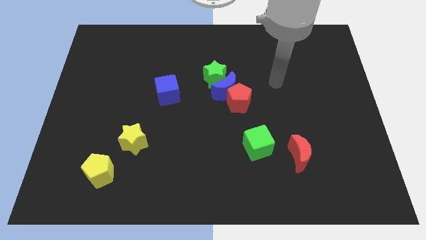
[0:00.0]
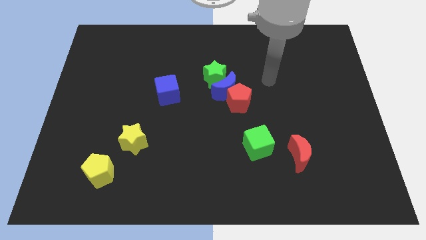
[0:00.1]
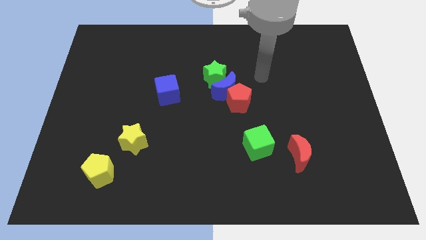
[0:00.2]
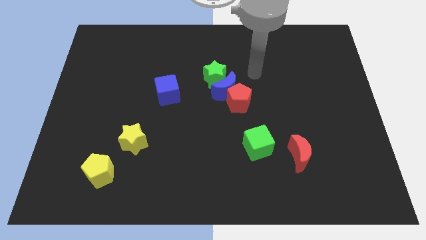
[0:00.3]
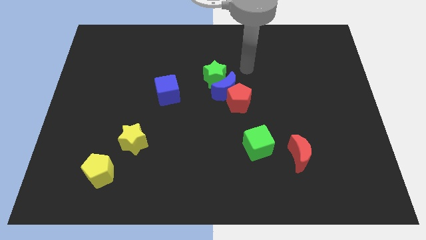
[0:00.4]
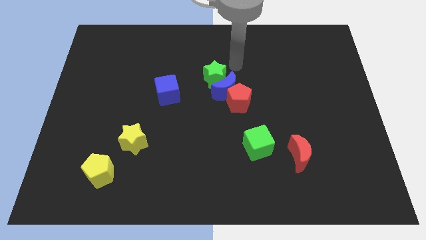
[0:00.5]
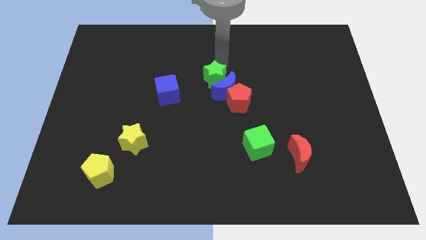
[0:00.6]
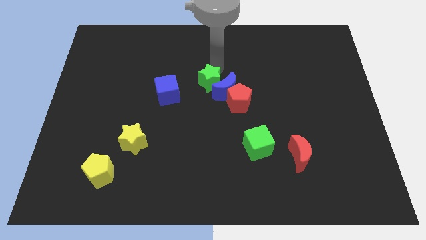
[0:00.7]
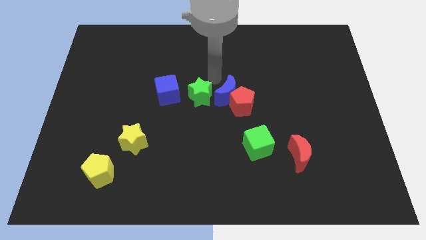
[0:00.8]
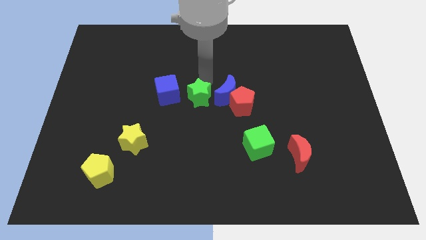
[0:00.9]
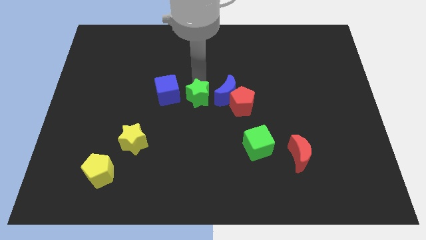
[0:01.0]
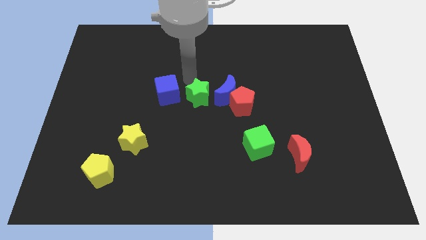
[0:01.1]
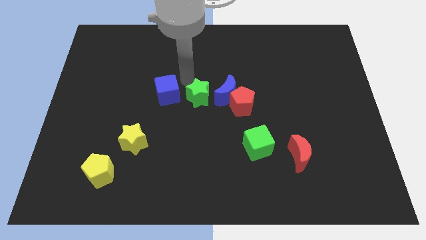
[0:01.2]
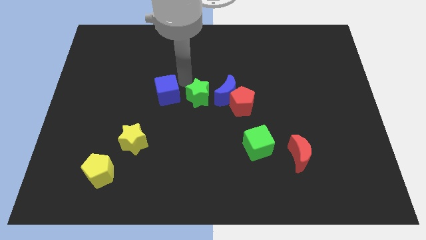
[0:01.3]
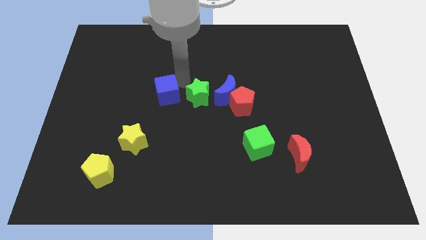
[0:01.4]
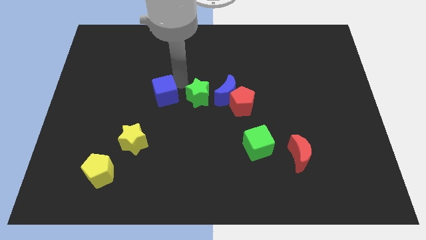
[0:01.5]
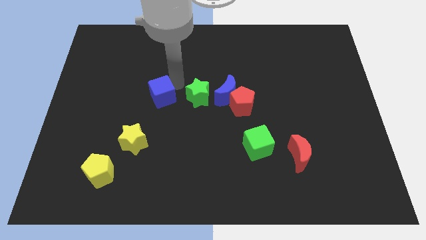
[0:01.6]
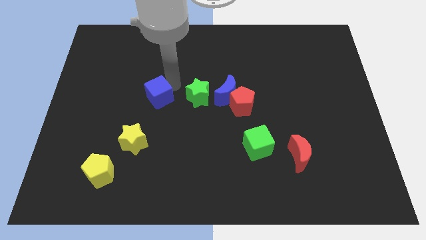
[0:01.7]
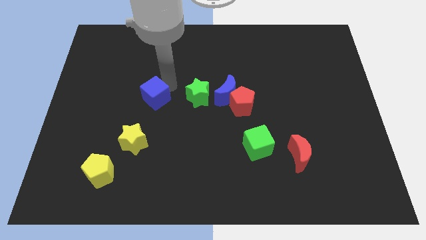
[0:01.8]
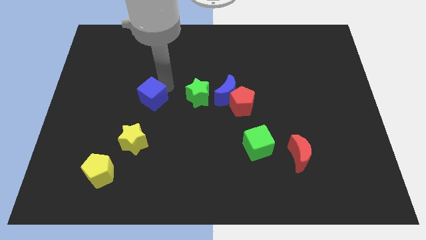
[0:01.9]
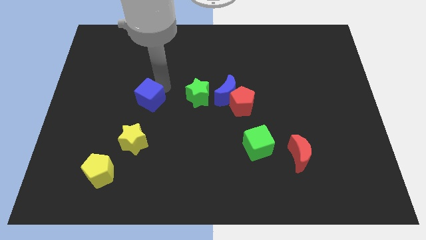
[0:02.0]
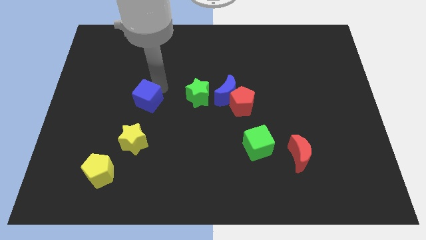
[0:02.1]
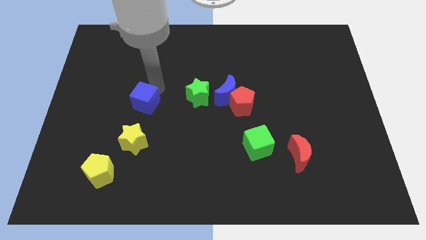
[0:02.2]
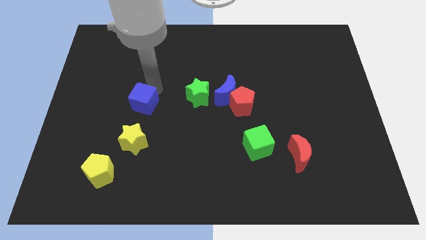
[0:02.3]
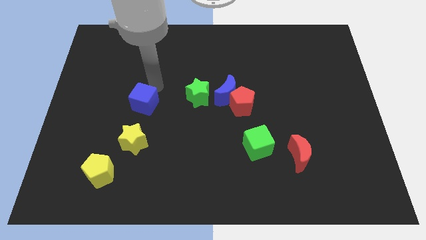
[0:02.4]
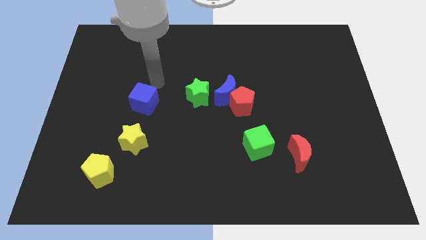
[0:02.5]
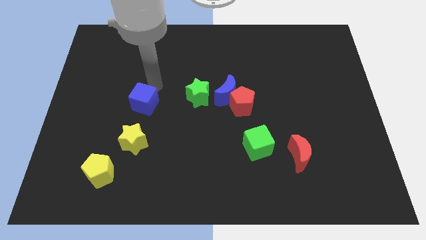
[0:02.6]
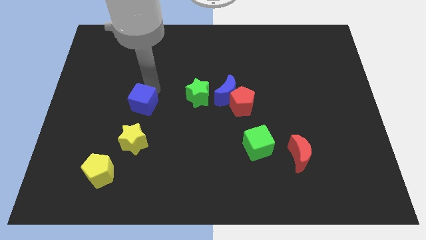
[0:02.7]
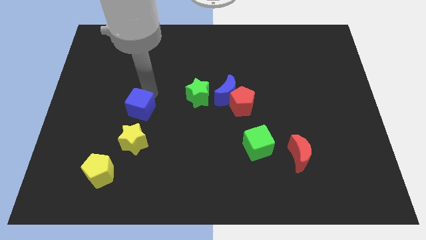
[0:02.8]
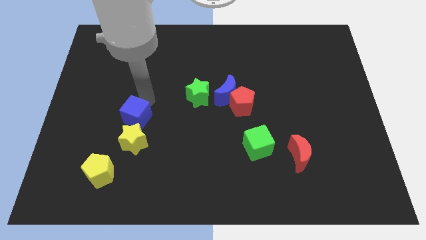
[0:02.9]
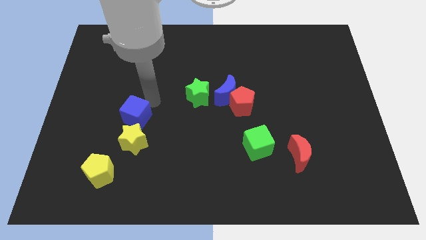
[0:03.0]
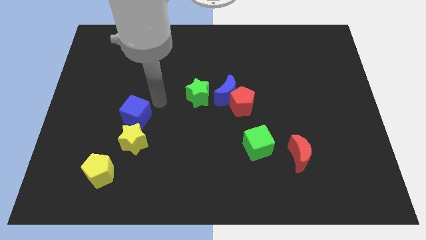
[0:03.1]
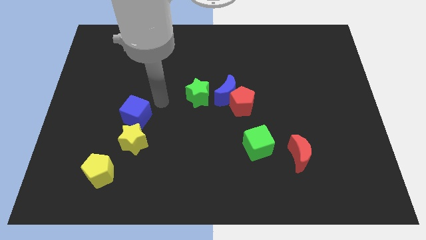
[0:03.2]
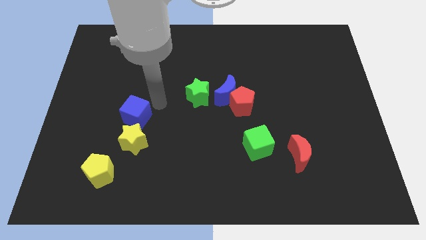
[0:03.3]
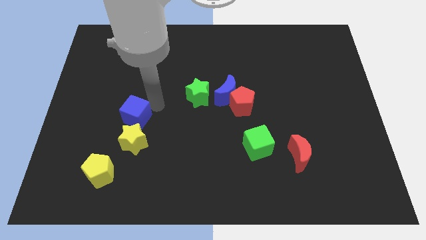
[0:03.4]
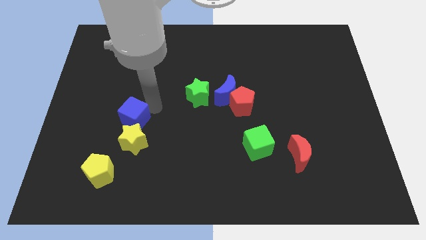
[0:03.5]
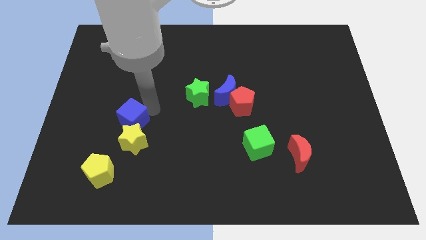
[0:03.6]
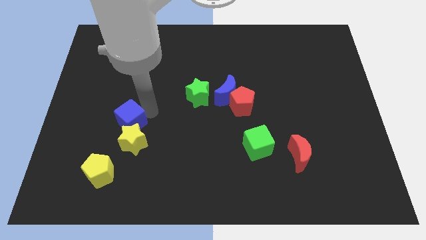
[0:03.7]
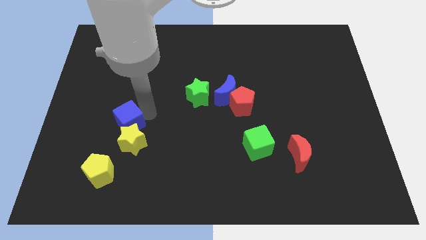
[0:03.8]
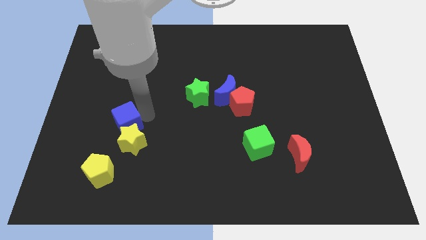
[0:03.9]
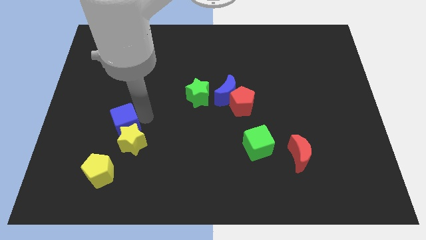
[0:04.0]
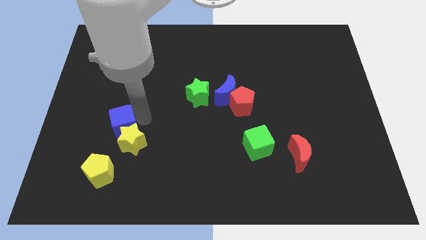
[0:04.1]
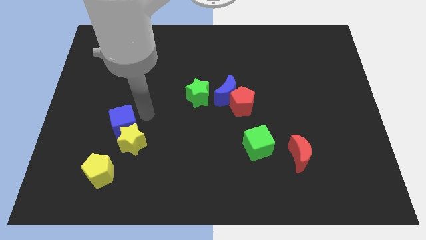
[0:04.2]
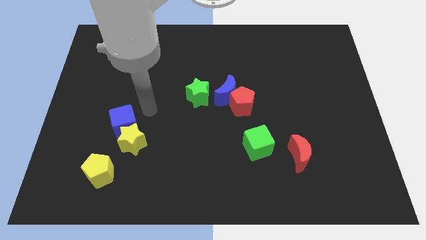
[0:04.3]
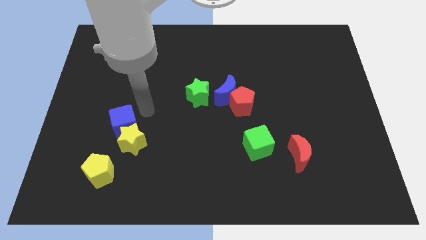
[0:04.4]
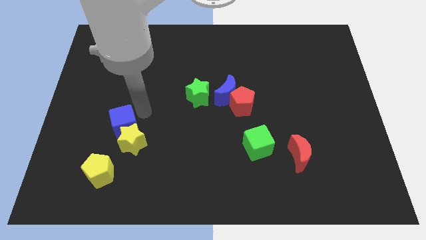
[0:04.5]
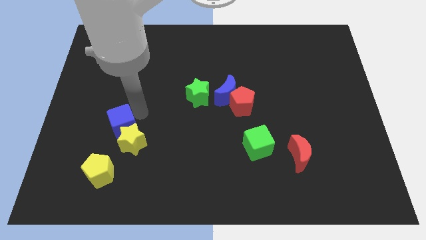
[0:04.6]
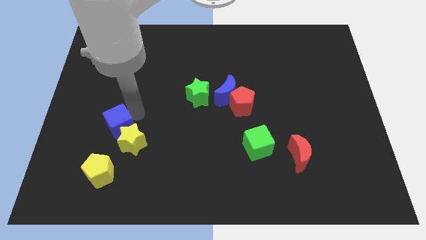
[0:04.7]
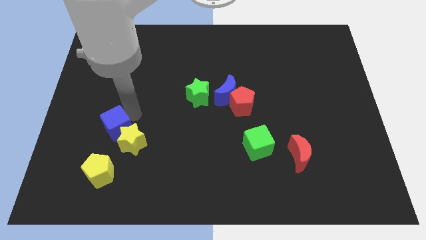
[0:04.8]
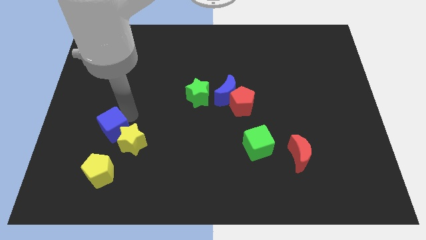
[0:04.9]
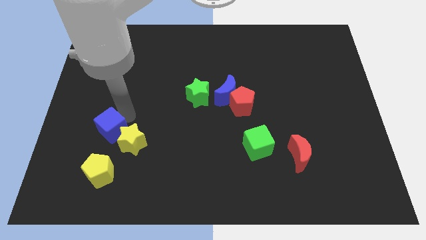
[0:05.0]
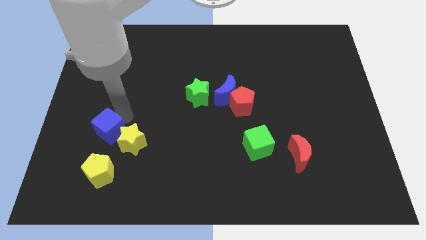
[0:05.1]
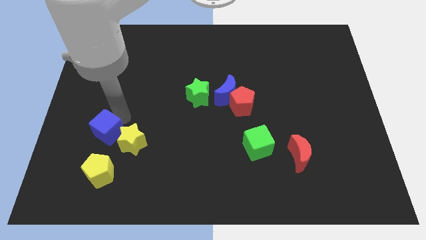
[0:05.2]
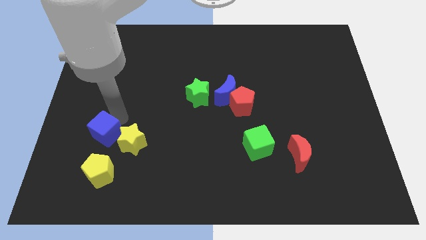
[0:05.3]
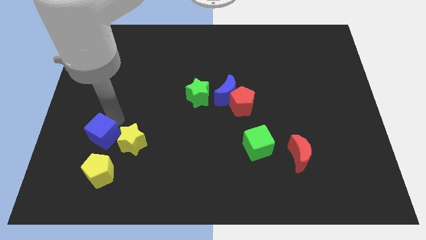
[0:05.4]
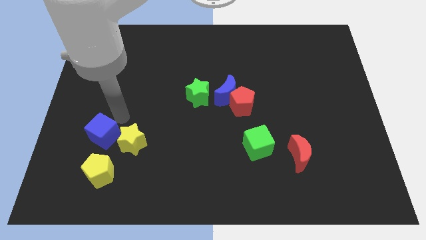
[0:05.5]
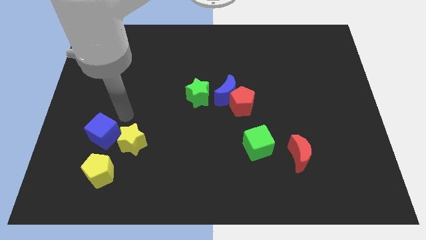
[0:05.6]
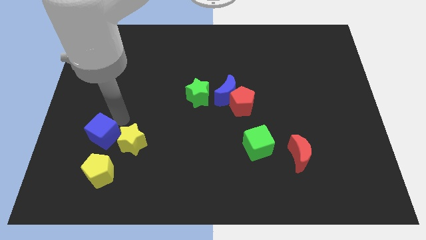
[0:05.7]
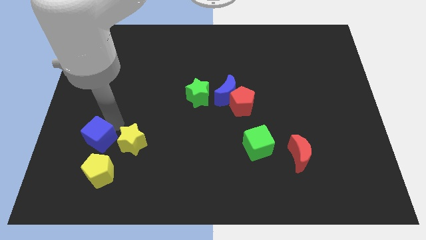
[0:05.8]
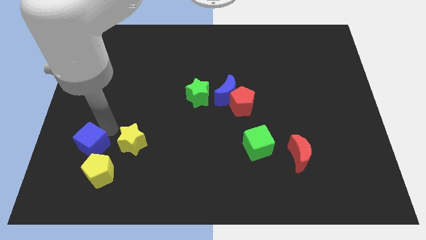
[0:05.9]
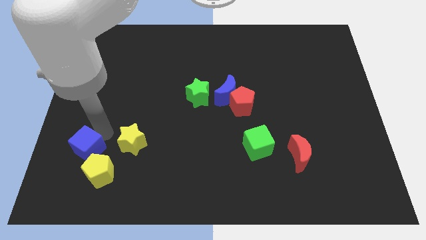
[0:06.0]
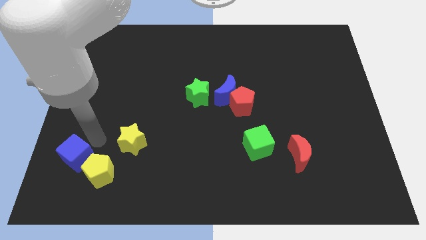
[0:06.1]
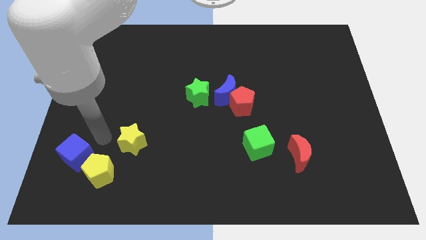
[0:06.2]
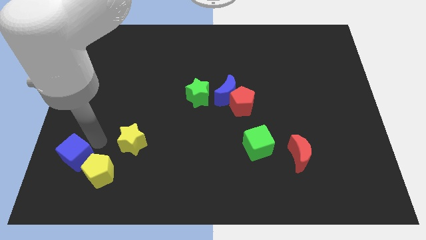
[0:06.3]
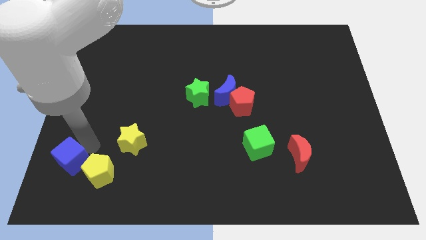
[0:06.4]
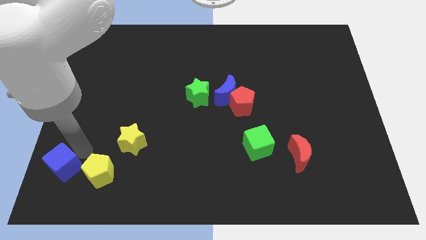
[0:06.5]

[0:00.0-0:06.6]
slide the blue cube to the bottom left

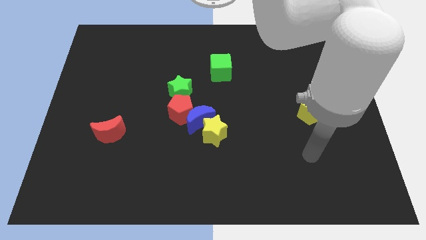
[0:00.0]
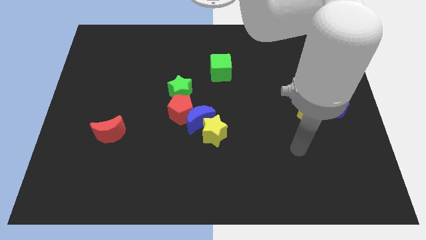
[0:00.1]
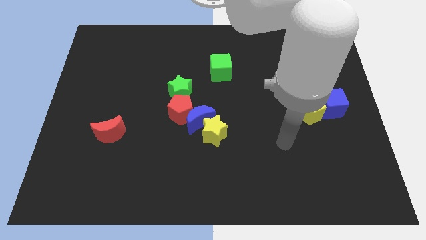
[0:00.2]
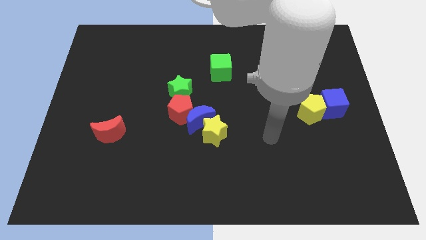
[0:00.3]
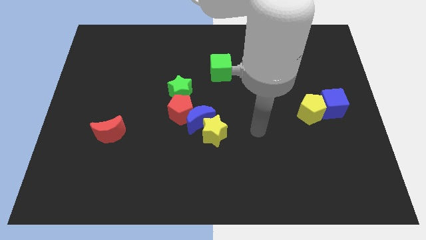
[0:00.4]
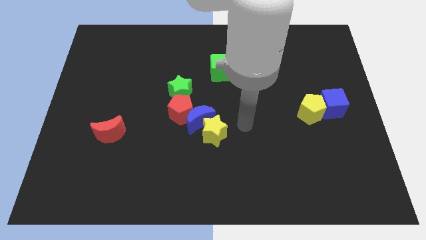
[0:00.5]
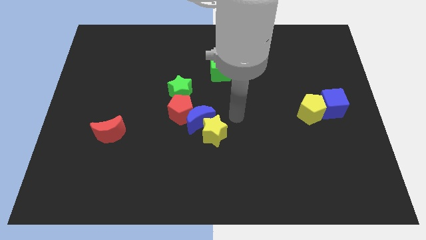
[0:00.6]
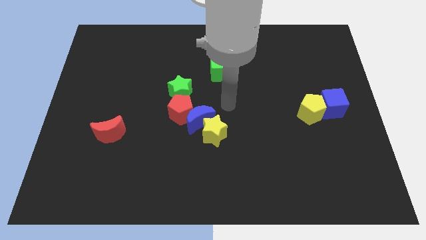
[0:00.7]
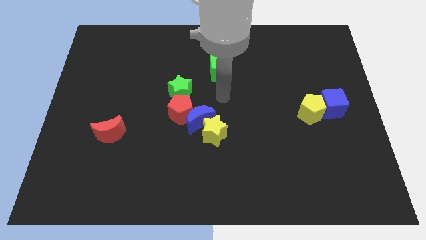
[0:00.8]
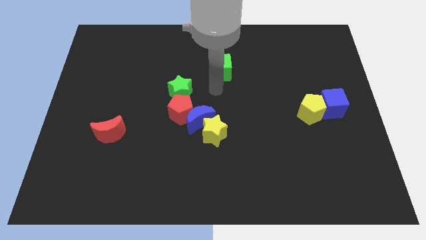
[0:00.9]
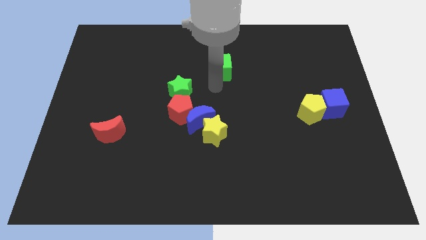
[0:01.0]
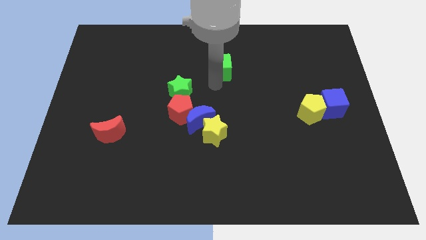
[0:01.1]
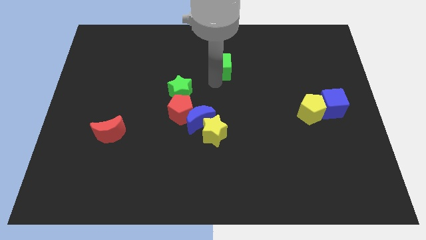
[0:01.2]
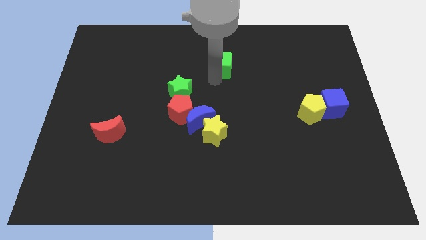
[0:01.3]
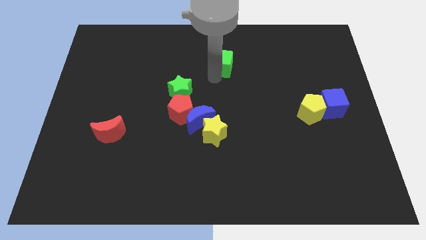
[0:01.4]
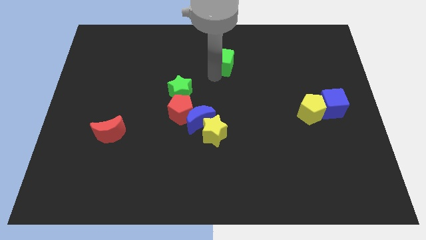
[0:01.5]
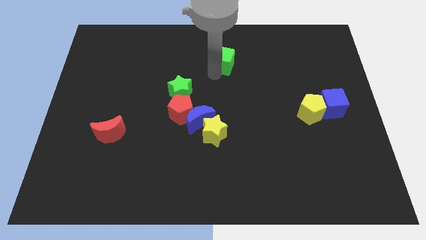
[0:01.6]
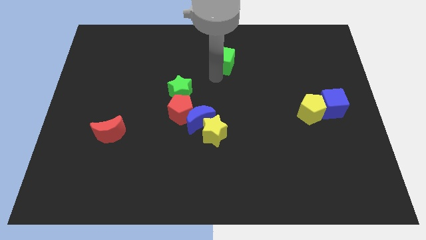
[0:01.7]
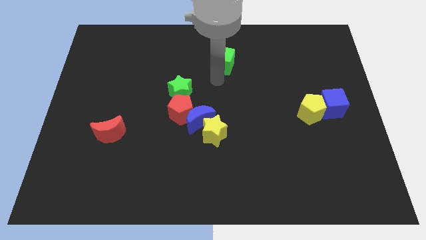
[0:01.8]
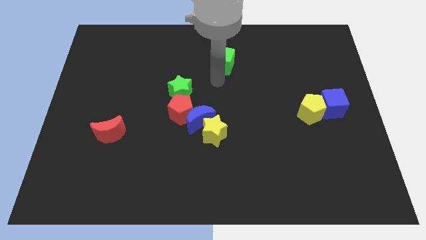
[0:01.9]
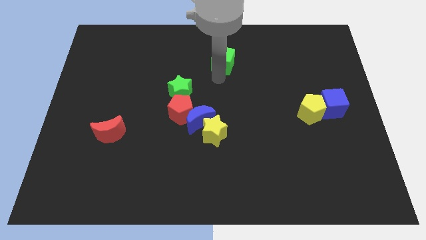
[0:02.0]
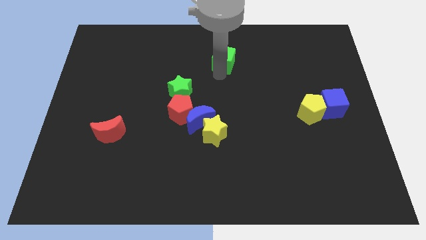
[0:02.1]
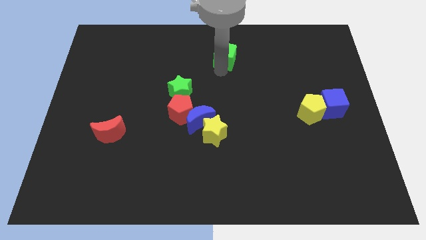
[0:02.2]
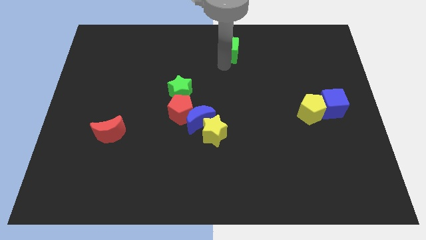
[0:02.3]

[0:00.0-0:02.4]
slide the green cube to the top side
